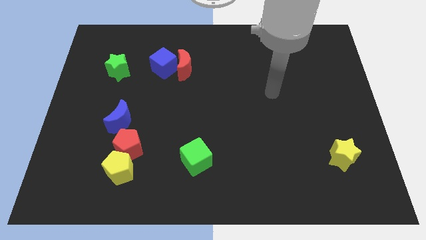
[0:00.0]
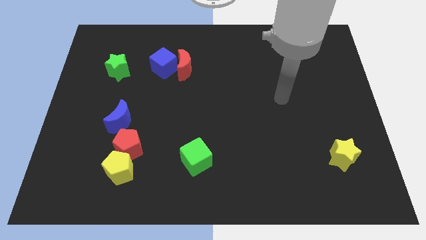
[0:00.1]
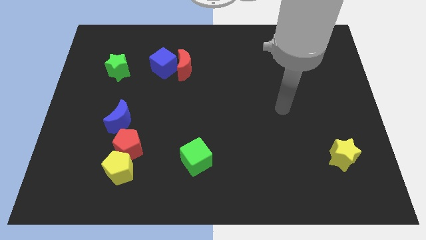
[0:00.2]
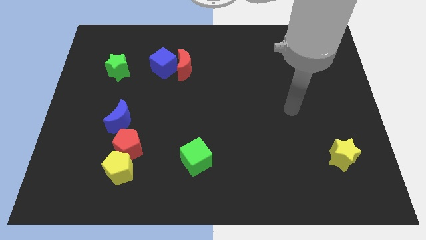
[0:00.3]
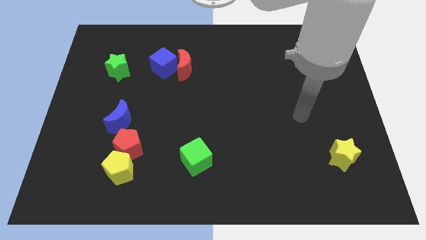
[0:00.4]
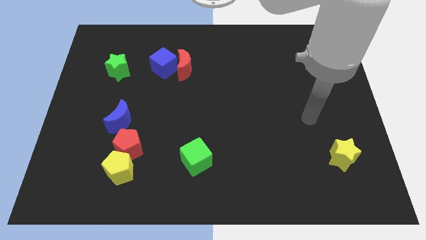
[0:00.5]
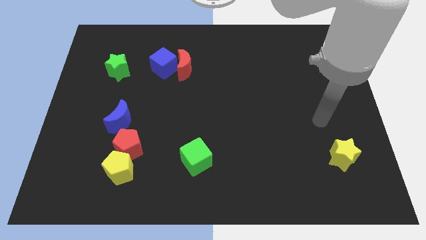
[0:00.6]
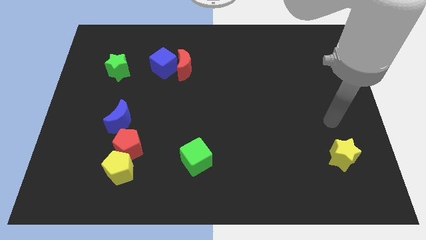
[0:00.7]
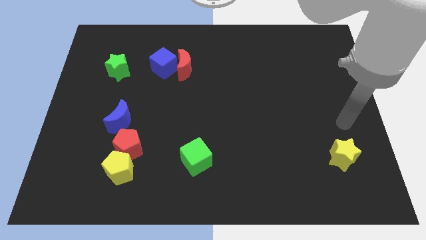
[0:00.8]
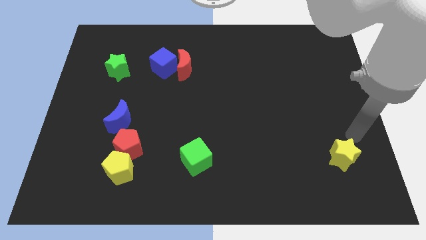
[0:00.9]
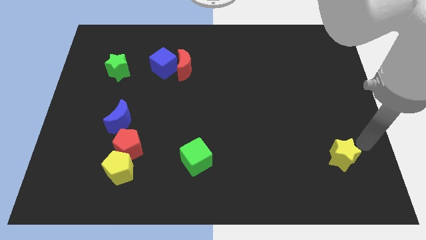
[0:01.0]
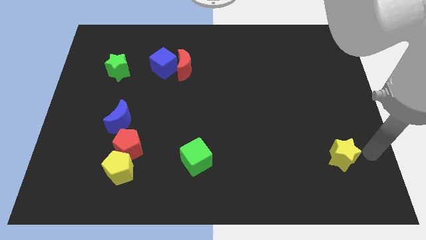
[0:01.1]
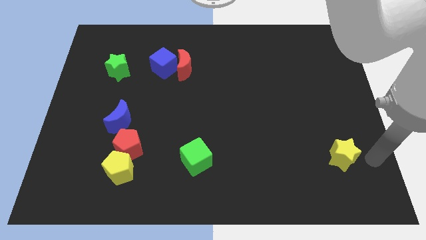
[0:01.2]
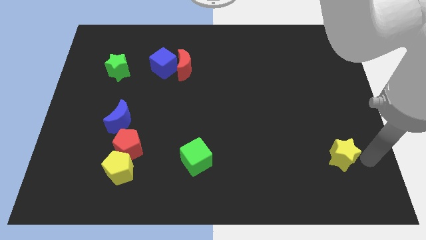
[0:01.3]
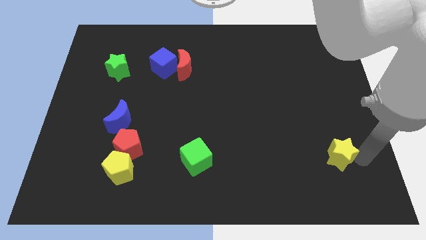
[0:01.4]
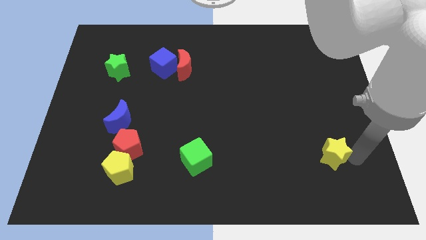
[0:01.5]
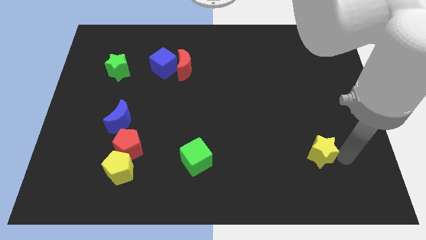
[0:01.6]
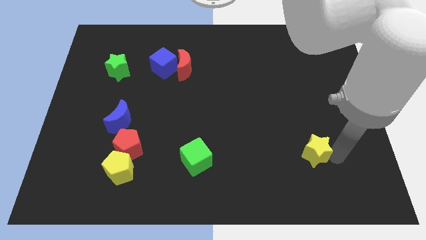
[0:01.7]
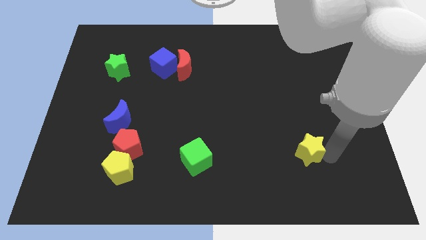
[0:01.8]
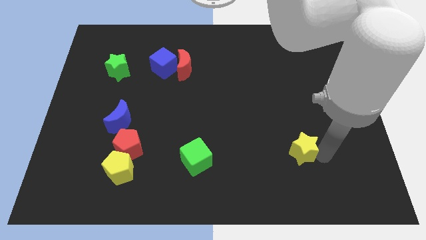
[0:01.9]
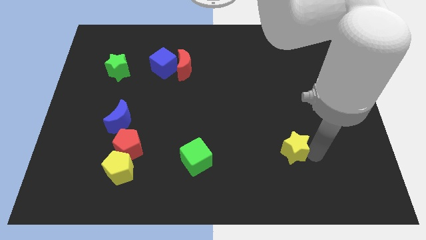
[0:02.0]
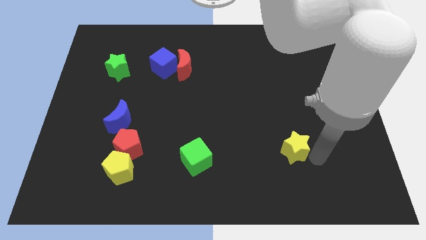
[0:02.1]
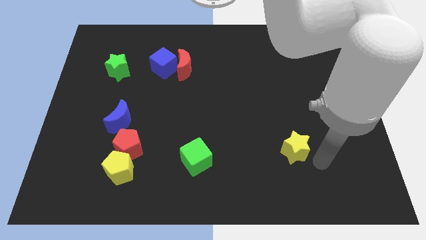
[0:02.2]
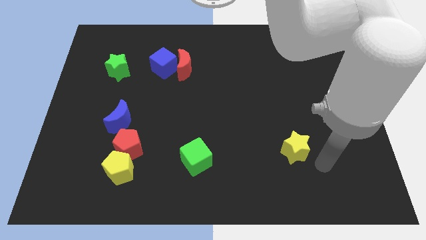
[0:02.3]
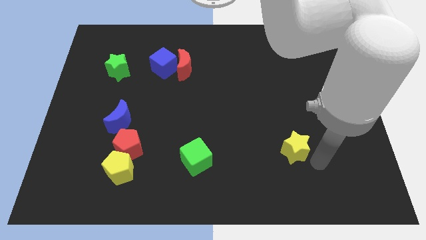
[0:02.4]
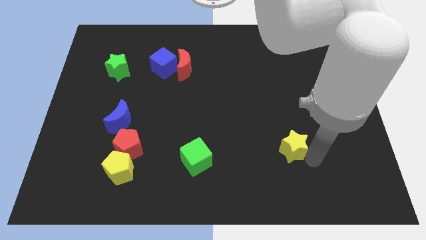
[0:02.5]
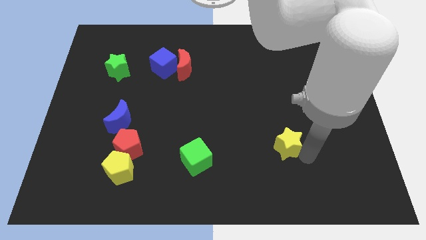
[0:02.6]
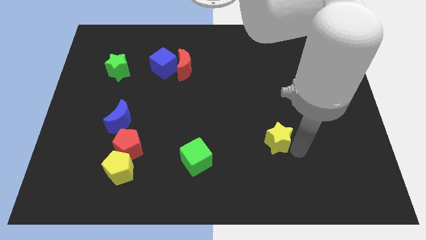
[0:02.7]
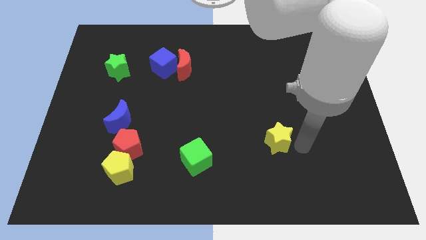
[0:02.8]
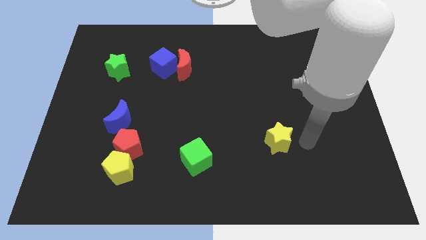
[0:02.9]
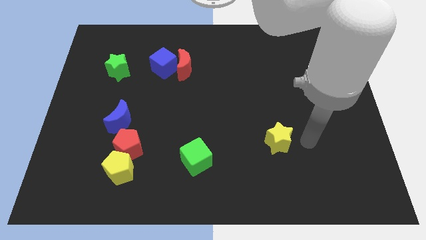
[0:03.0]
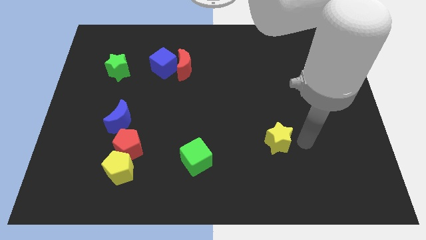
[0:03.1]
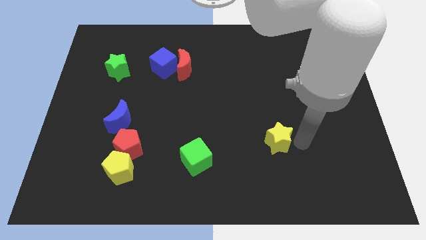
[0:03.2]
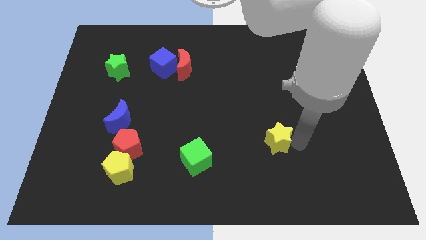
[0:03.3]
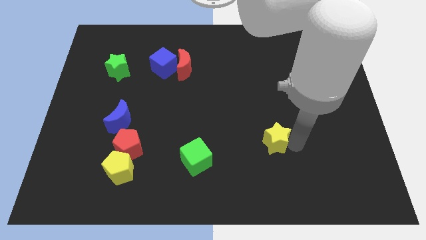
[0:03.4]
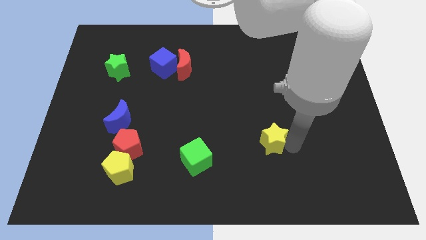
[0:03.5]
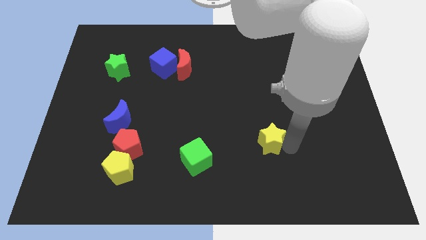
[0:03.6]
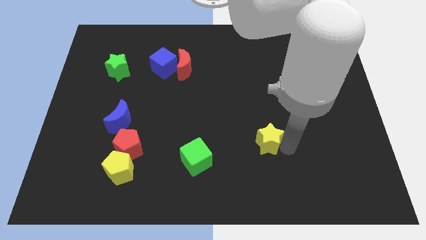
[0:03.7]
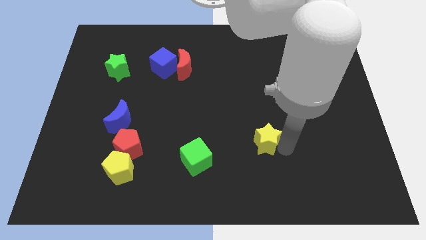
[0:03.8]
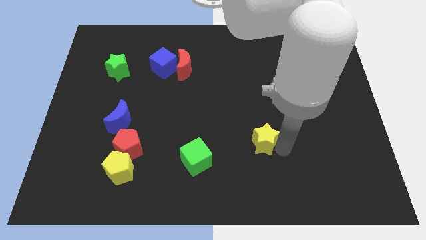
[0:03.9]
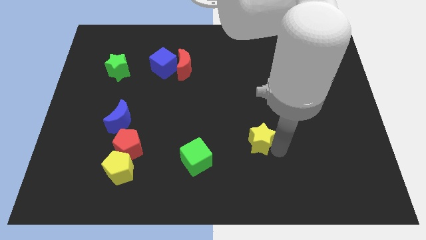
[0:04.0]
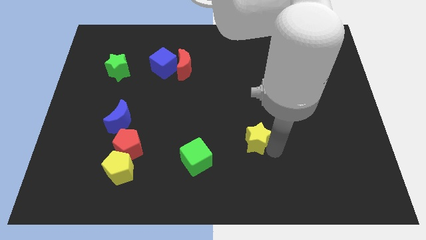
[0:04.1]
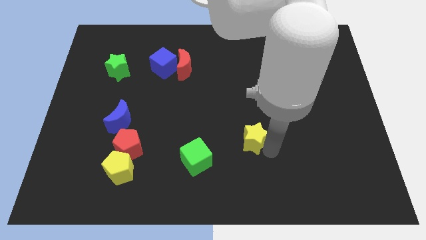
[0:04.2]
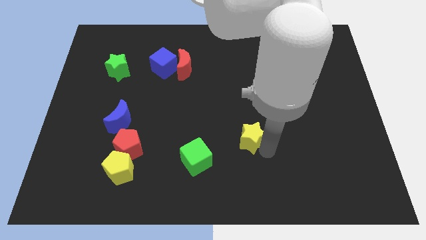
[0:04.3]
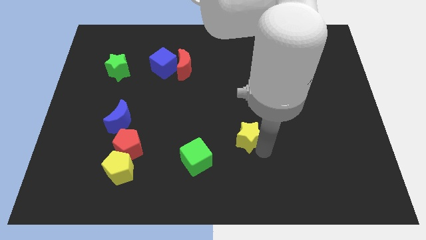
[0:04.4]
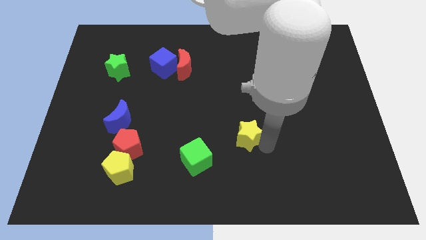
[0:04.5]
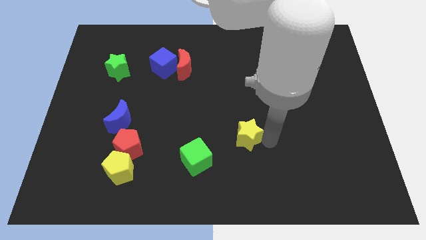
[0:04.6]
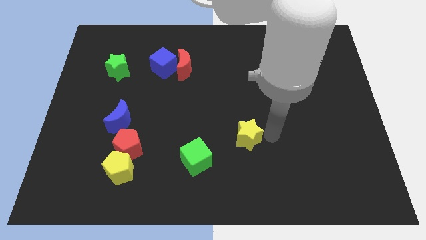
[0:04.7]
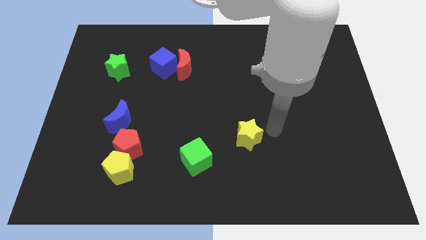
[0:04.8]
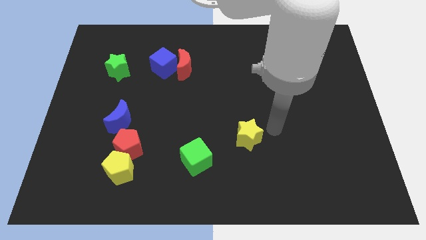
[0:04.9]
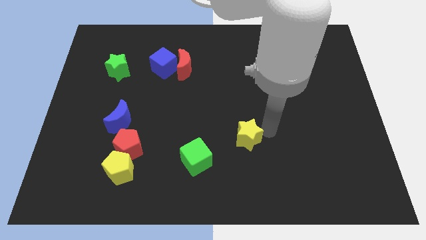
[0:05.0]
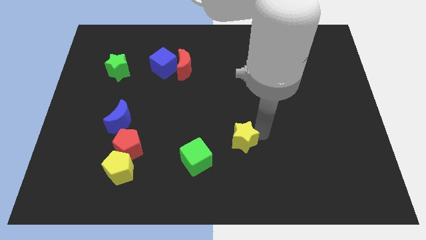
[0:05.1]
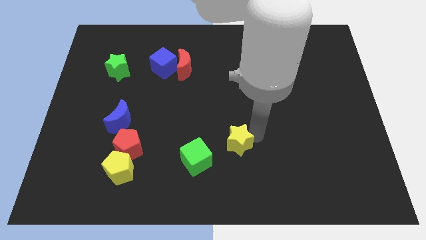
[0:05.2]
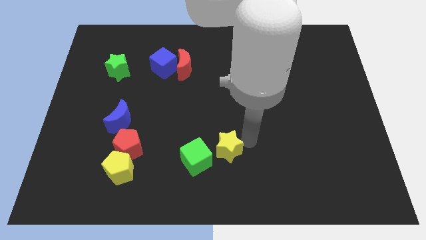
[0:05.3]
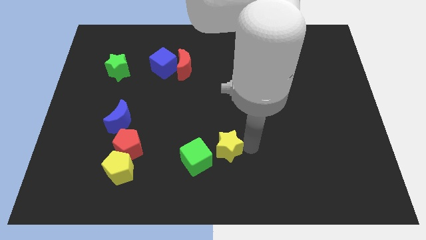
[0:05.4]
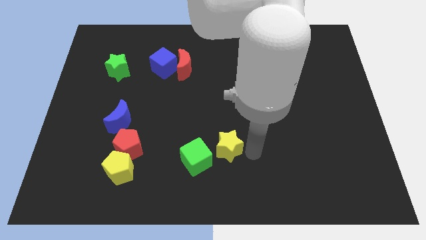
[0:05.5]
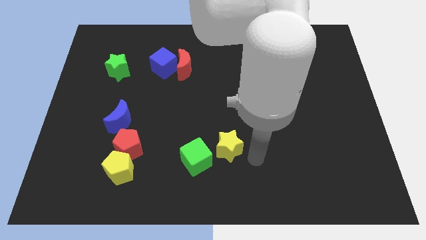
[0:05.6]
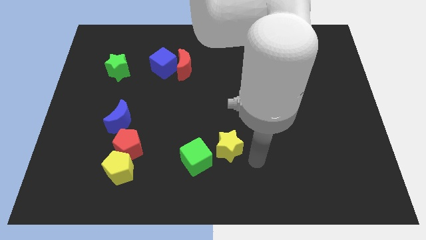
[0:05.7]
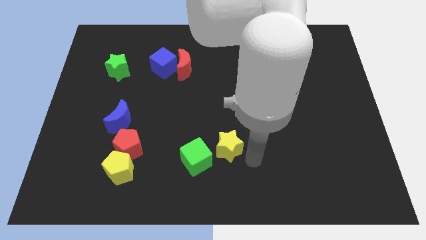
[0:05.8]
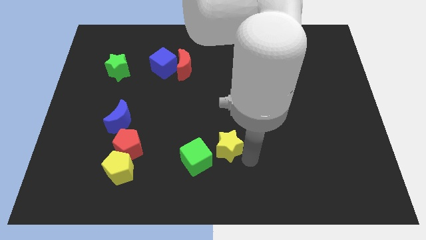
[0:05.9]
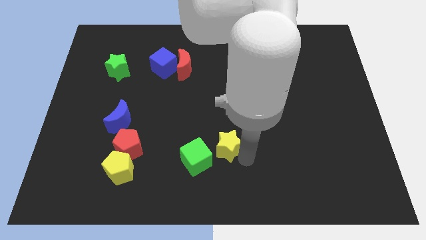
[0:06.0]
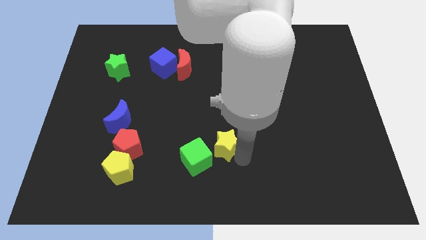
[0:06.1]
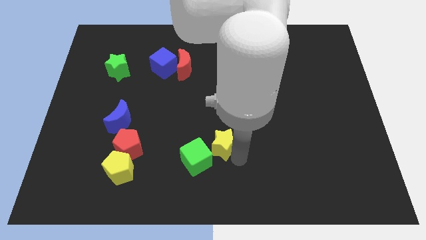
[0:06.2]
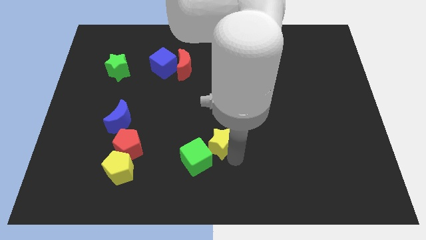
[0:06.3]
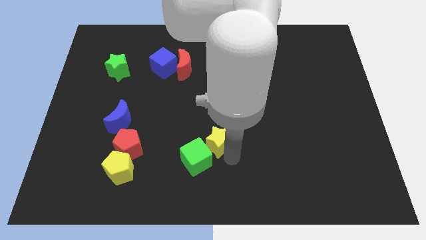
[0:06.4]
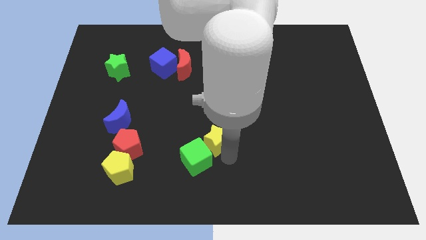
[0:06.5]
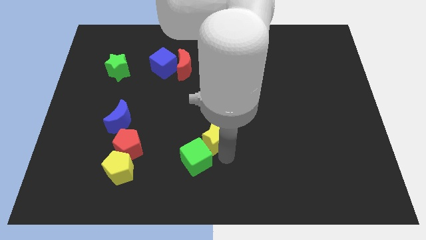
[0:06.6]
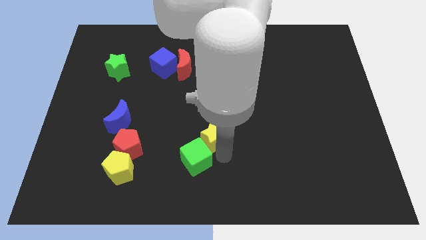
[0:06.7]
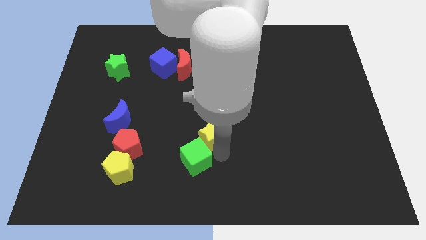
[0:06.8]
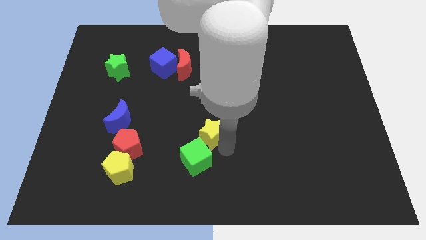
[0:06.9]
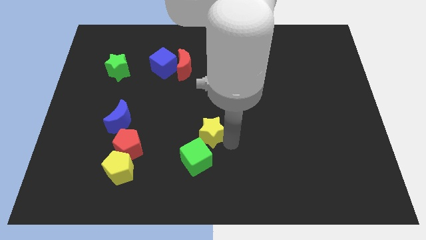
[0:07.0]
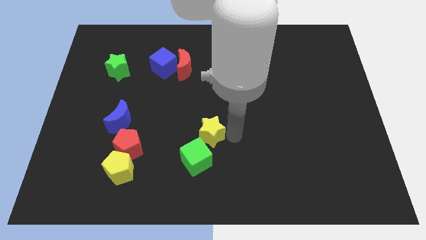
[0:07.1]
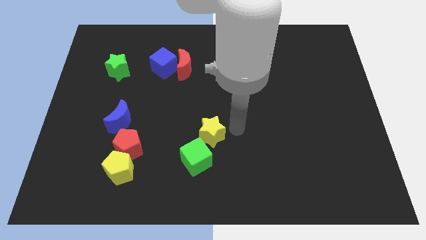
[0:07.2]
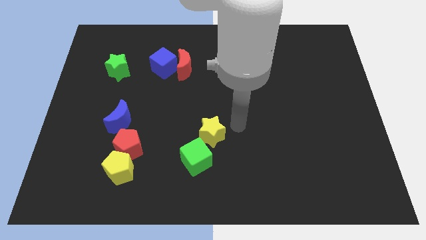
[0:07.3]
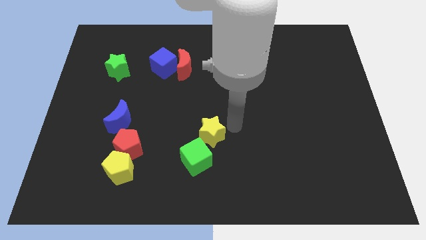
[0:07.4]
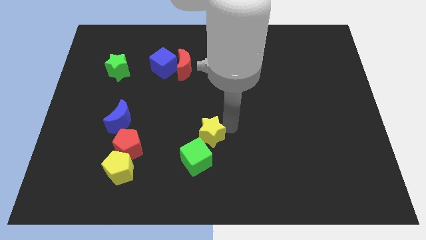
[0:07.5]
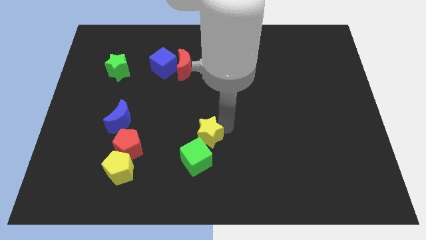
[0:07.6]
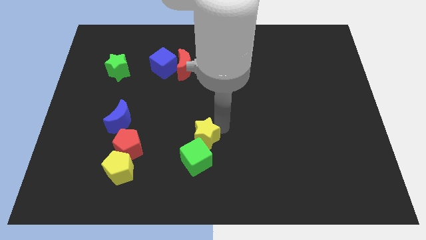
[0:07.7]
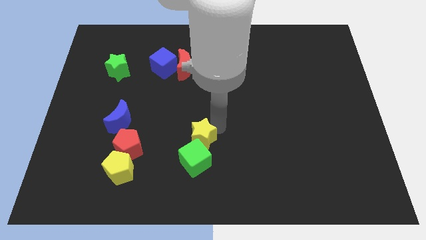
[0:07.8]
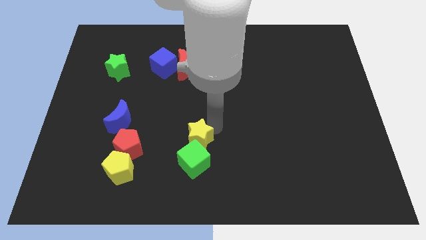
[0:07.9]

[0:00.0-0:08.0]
put the yellow star to the right of the red pentagon
